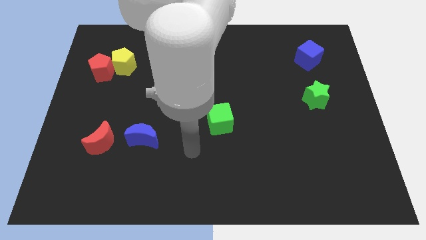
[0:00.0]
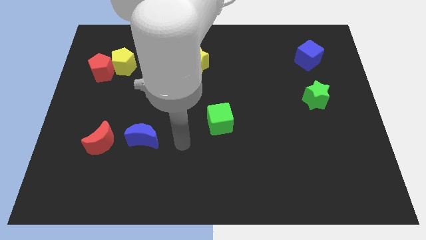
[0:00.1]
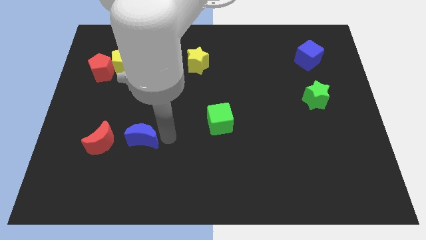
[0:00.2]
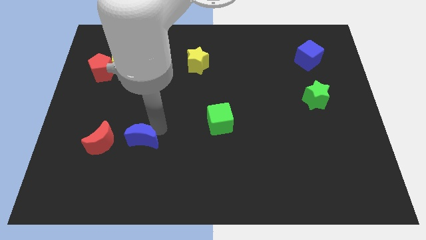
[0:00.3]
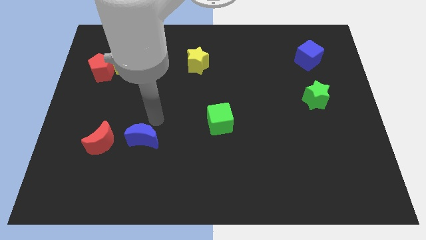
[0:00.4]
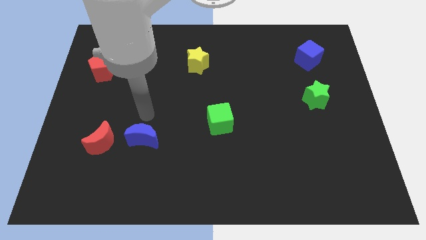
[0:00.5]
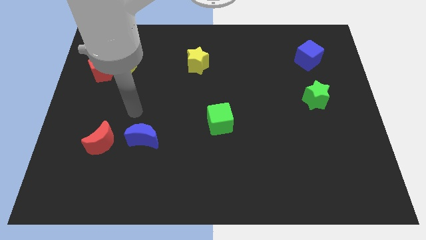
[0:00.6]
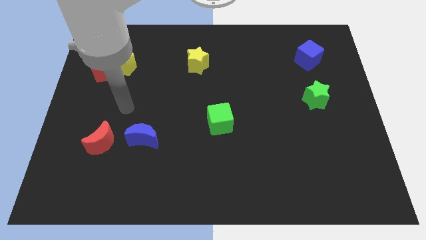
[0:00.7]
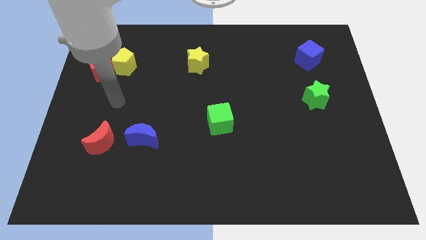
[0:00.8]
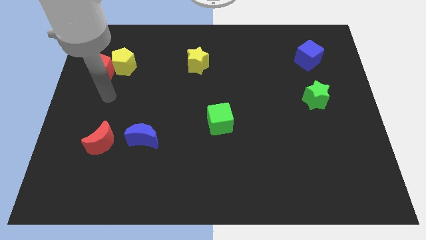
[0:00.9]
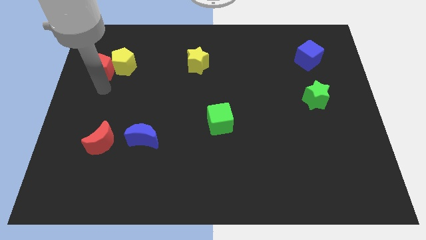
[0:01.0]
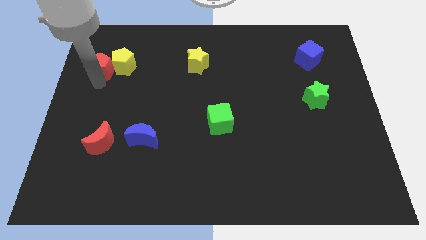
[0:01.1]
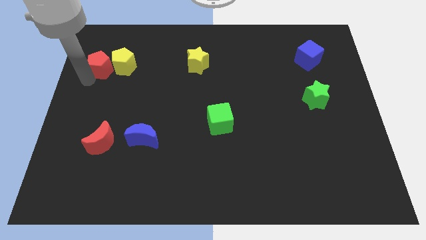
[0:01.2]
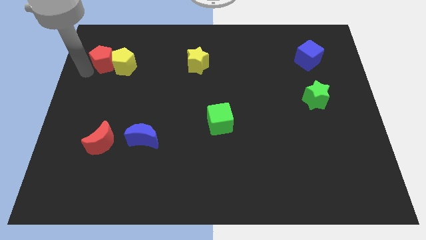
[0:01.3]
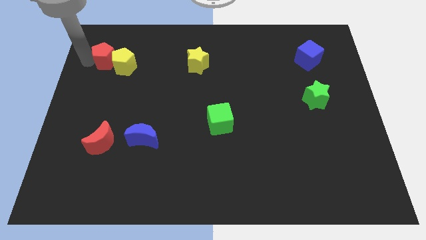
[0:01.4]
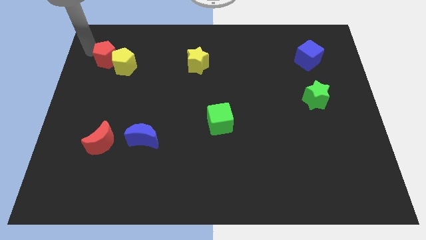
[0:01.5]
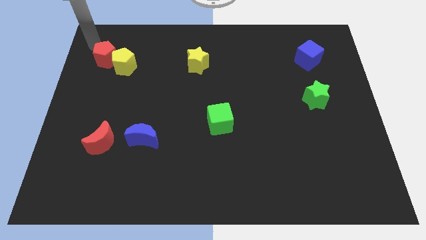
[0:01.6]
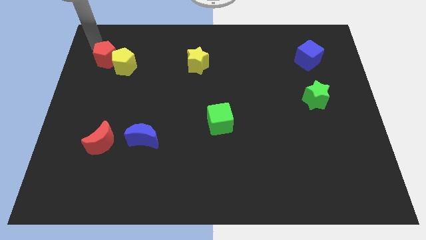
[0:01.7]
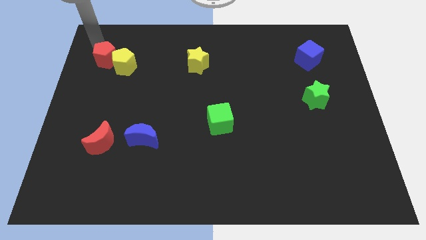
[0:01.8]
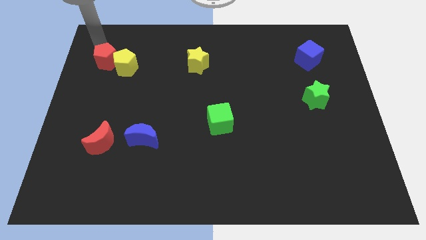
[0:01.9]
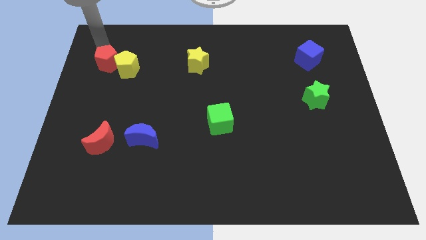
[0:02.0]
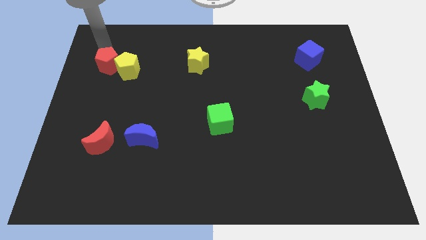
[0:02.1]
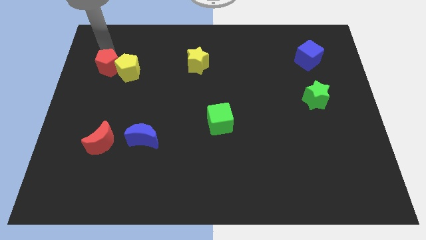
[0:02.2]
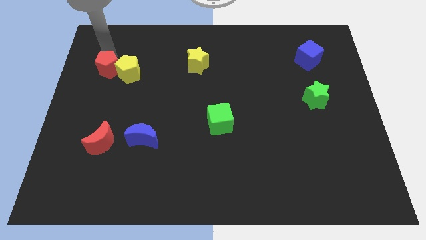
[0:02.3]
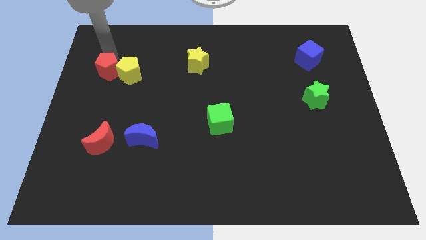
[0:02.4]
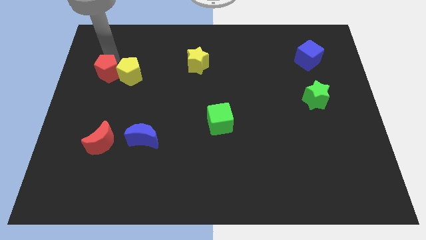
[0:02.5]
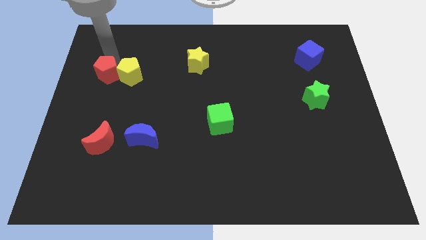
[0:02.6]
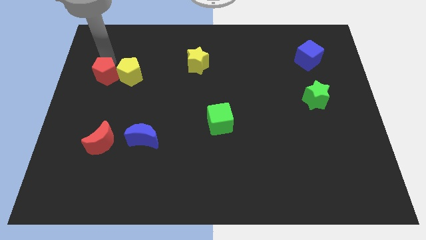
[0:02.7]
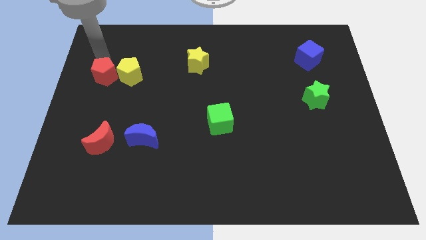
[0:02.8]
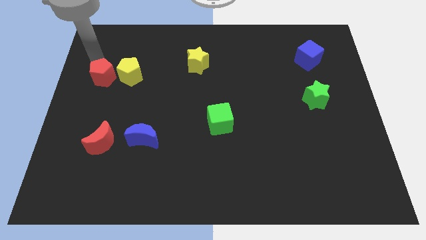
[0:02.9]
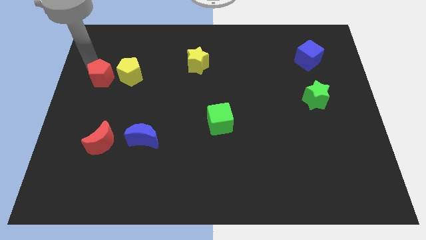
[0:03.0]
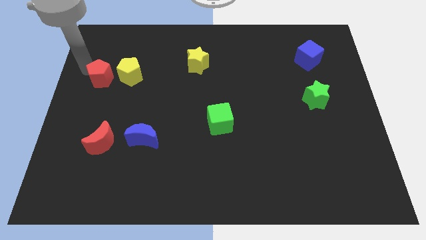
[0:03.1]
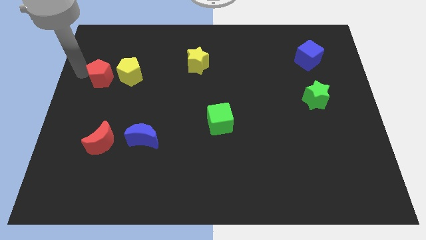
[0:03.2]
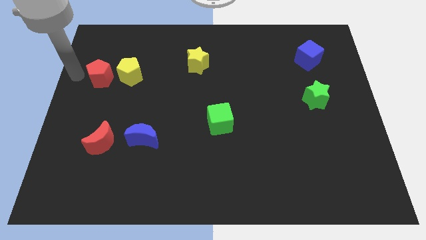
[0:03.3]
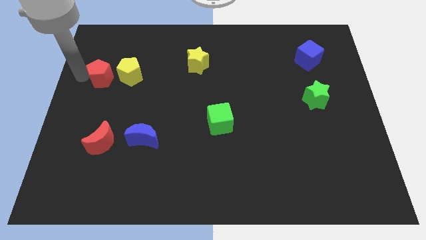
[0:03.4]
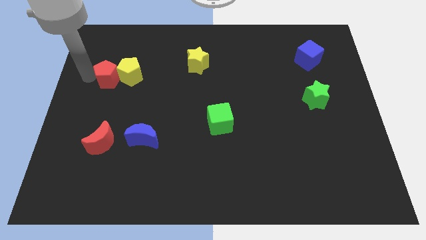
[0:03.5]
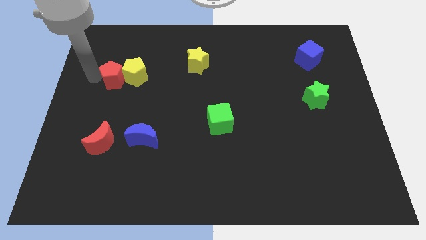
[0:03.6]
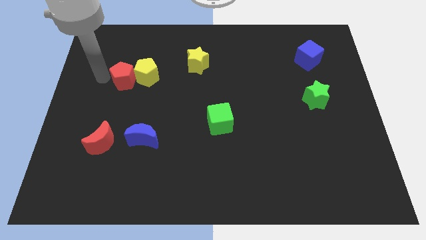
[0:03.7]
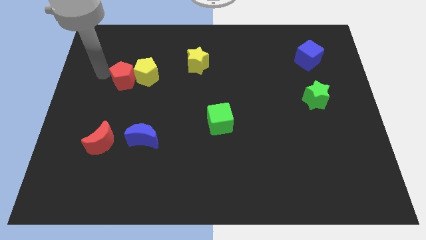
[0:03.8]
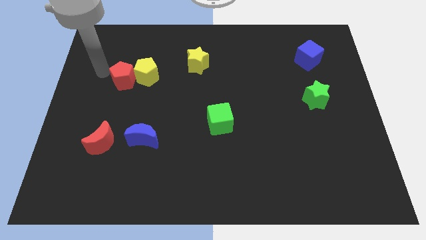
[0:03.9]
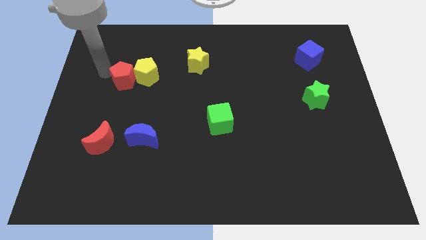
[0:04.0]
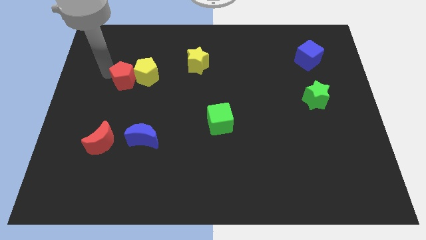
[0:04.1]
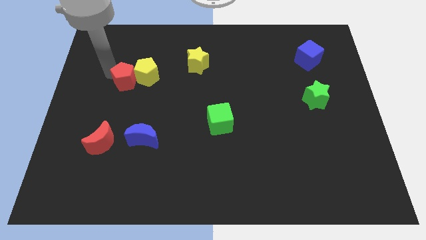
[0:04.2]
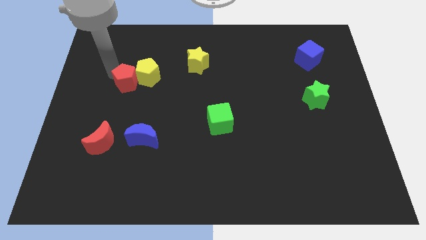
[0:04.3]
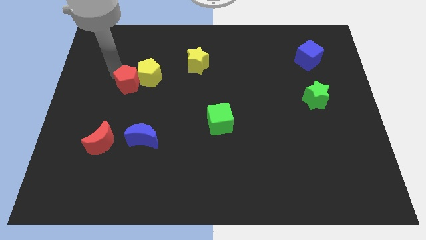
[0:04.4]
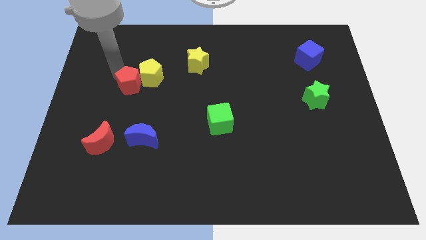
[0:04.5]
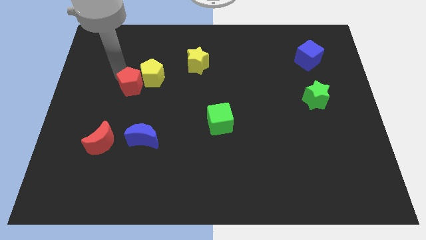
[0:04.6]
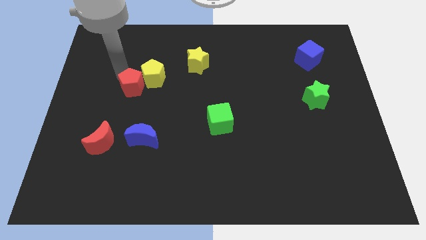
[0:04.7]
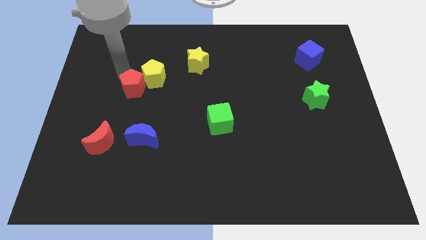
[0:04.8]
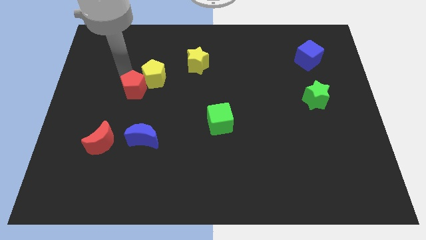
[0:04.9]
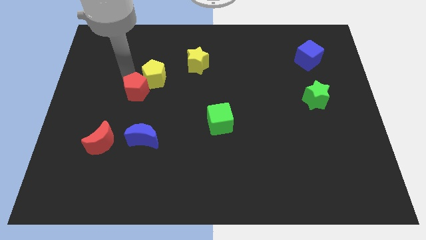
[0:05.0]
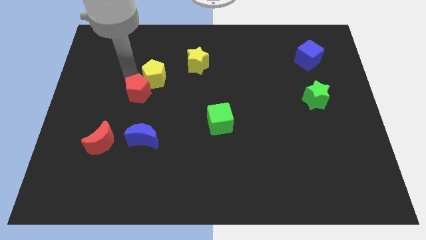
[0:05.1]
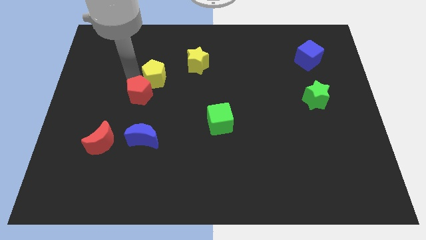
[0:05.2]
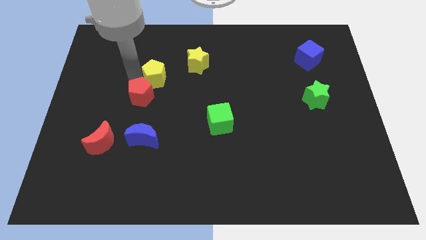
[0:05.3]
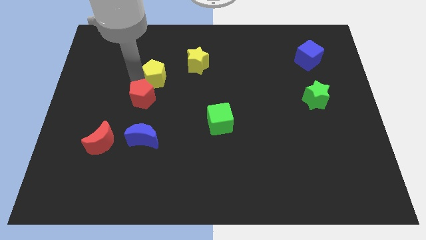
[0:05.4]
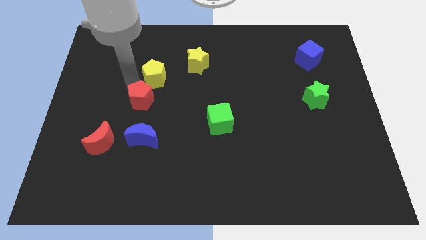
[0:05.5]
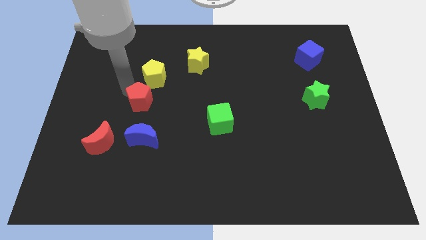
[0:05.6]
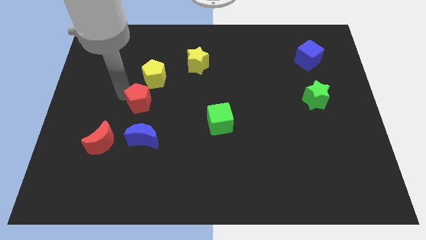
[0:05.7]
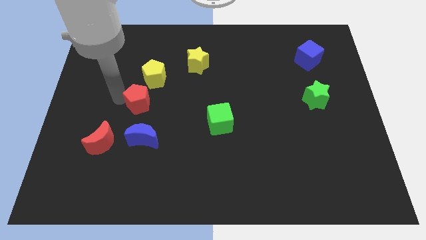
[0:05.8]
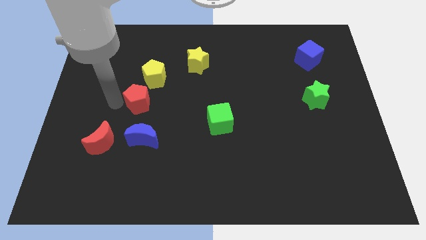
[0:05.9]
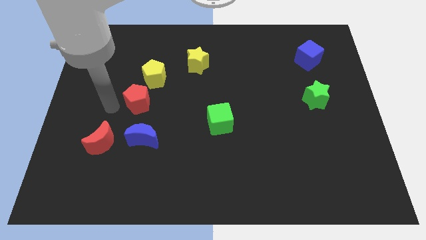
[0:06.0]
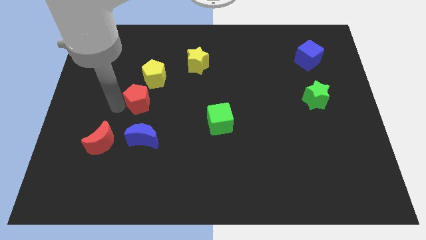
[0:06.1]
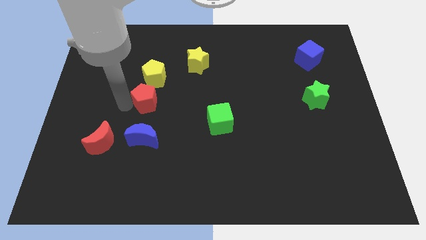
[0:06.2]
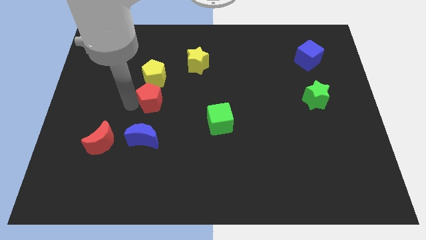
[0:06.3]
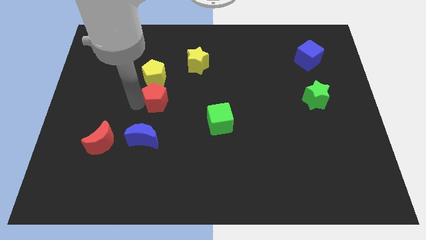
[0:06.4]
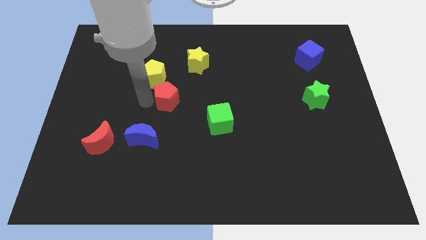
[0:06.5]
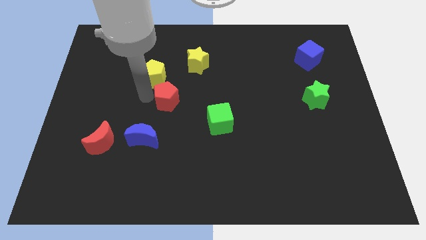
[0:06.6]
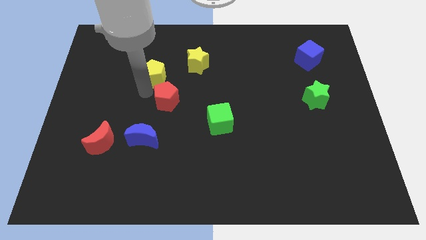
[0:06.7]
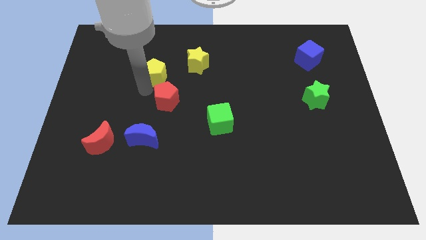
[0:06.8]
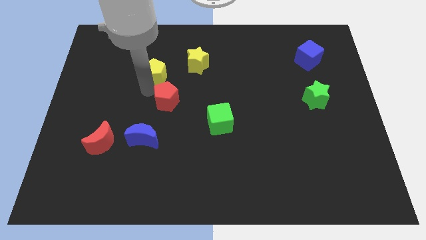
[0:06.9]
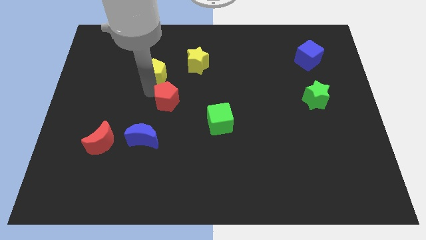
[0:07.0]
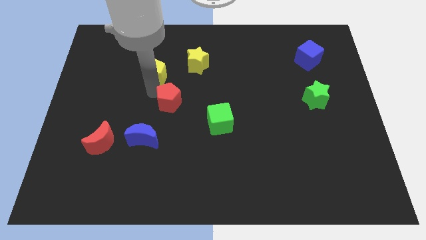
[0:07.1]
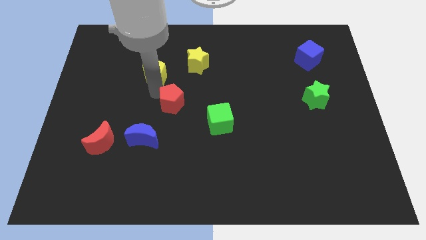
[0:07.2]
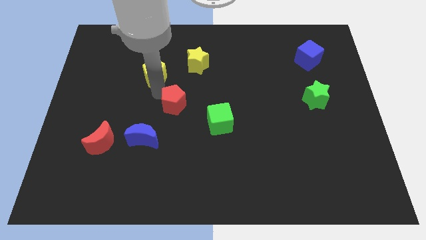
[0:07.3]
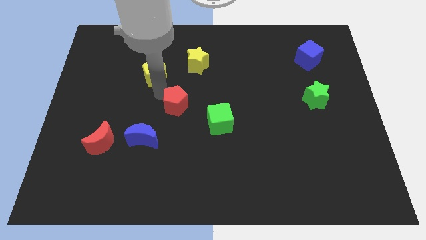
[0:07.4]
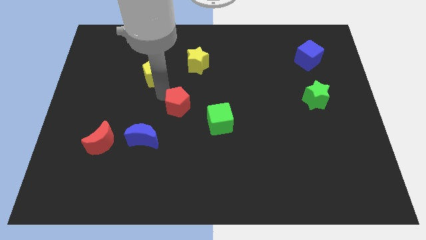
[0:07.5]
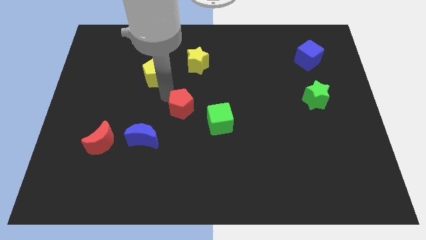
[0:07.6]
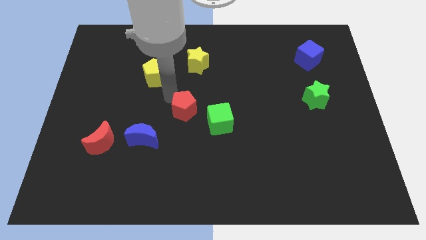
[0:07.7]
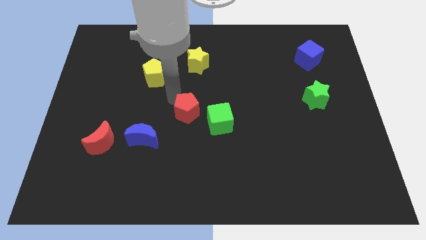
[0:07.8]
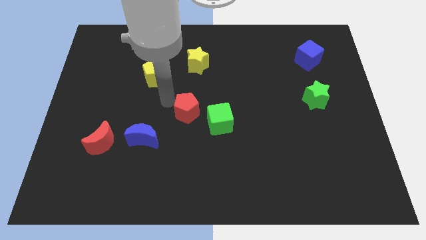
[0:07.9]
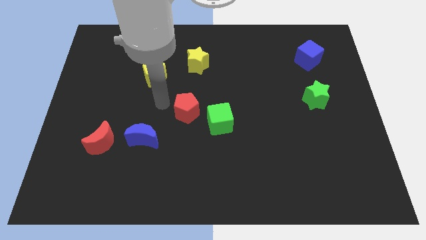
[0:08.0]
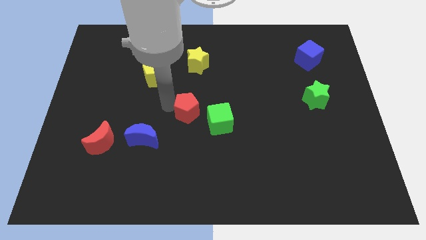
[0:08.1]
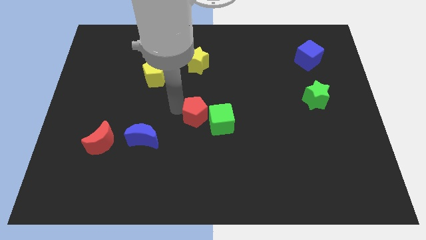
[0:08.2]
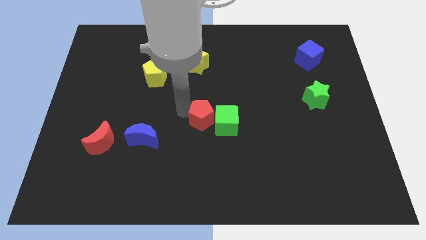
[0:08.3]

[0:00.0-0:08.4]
push the red pentagon towards the green cube
